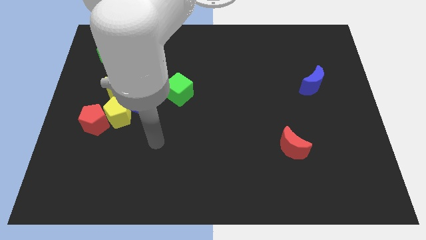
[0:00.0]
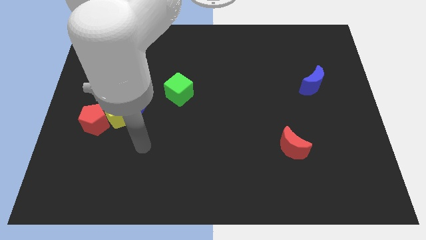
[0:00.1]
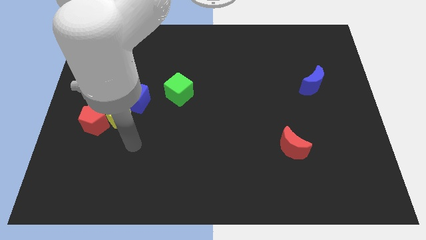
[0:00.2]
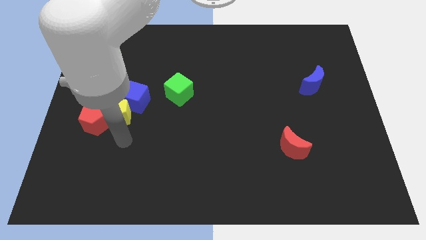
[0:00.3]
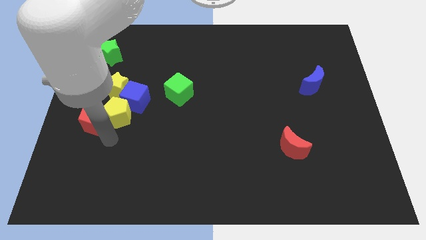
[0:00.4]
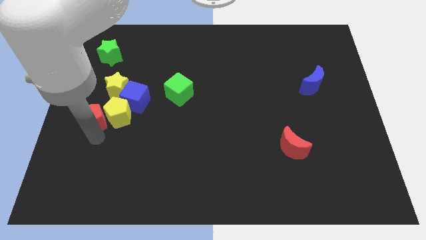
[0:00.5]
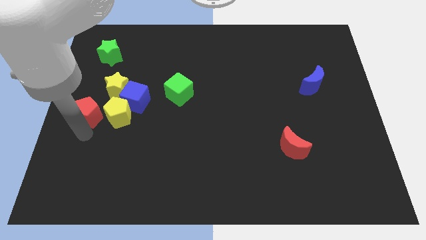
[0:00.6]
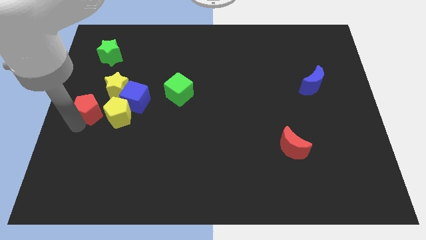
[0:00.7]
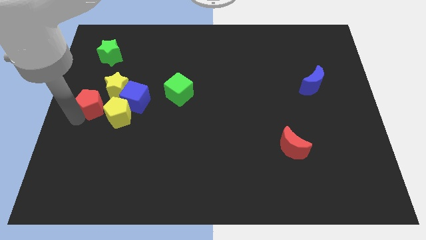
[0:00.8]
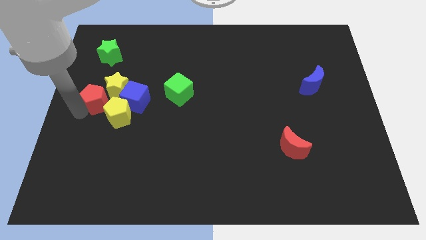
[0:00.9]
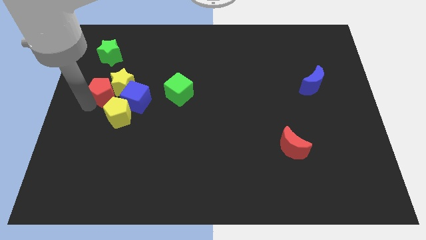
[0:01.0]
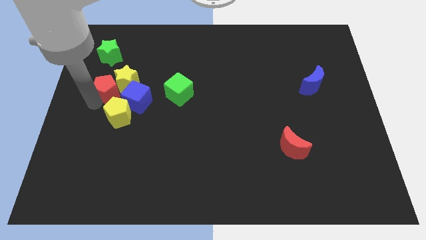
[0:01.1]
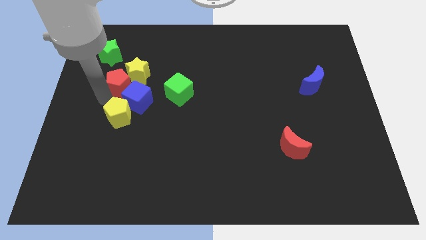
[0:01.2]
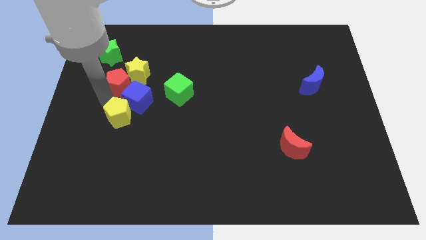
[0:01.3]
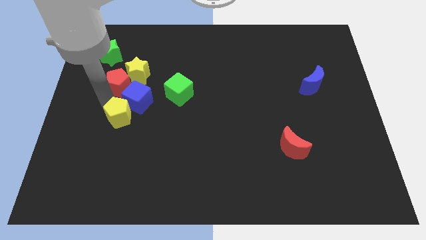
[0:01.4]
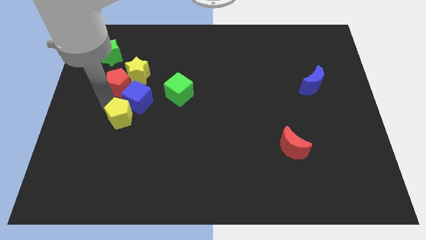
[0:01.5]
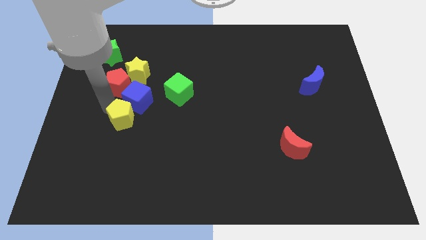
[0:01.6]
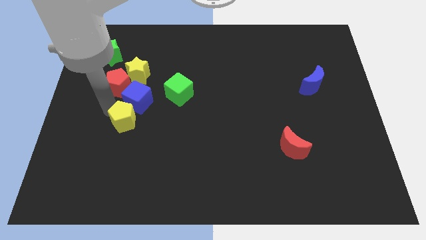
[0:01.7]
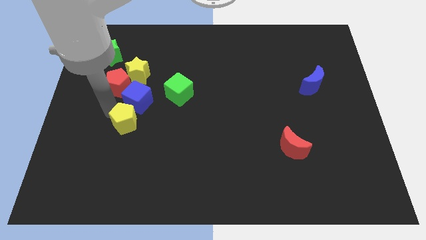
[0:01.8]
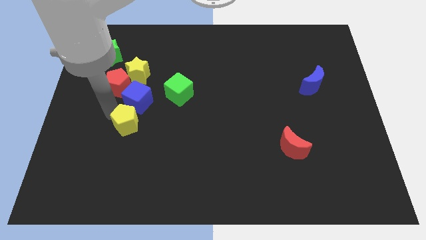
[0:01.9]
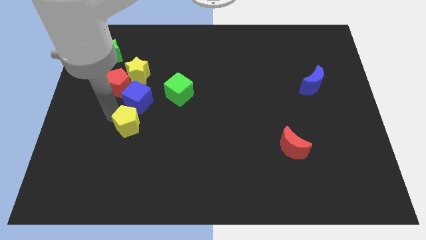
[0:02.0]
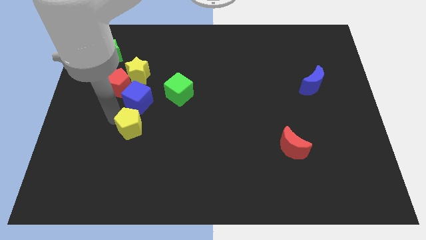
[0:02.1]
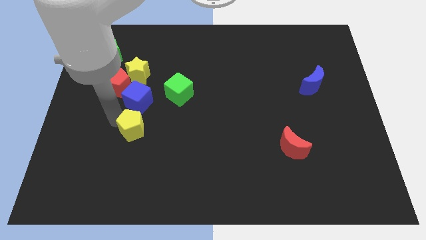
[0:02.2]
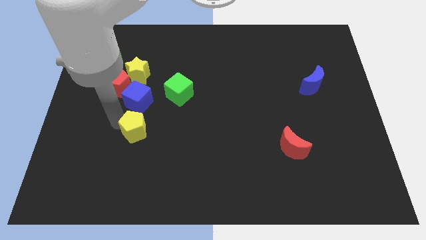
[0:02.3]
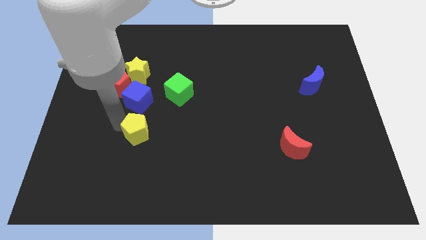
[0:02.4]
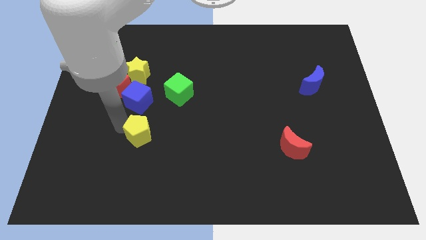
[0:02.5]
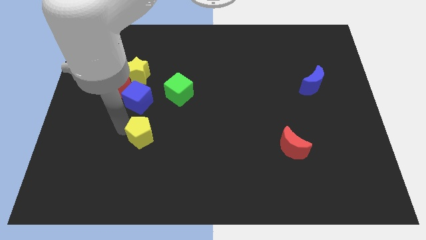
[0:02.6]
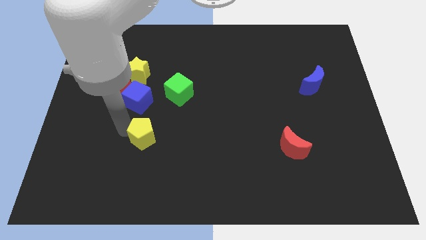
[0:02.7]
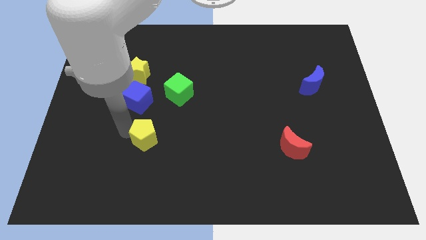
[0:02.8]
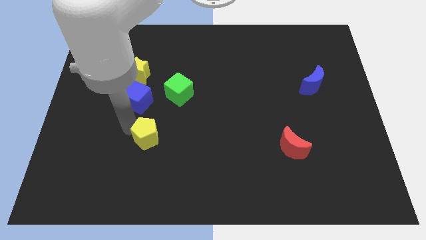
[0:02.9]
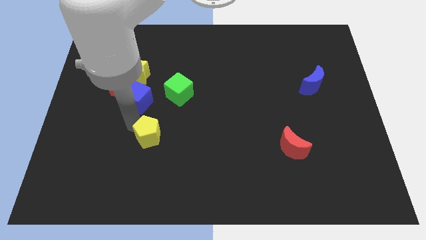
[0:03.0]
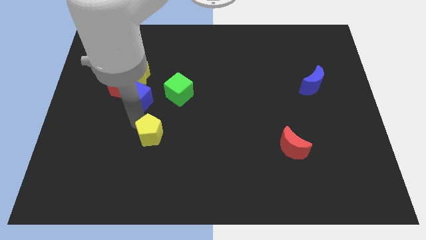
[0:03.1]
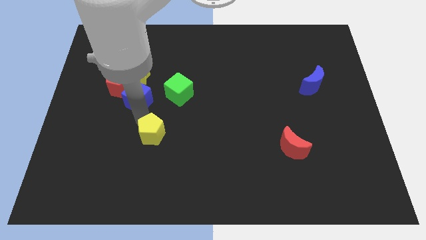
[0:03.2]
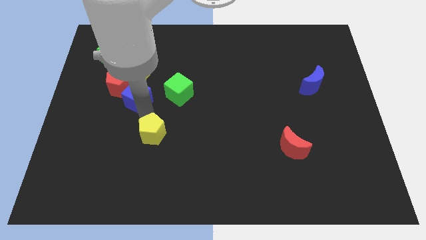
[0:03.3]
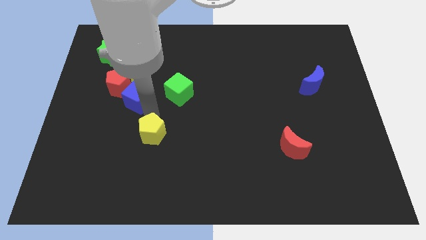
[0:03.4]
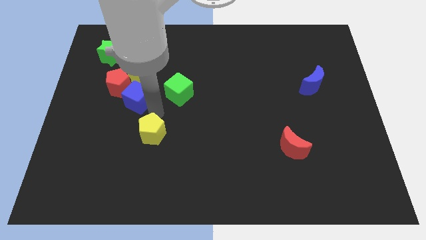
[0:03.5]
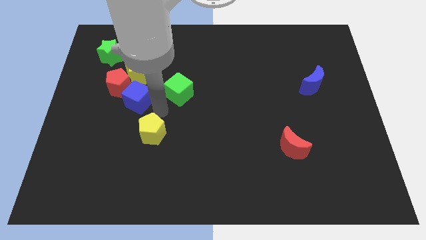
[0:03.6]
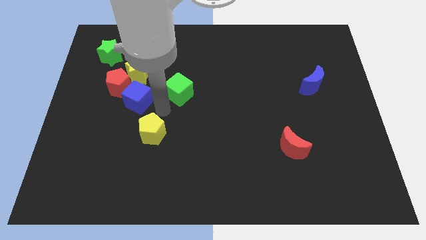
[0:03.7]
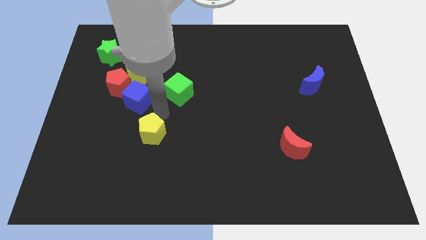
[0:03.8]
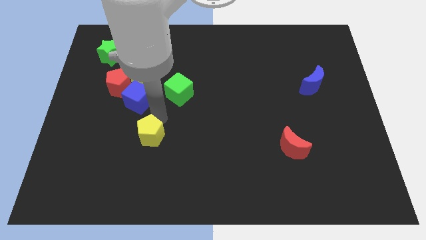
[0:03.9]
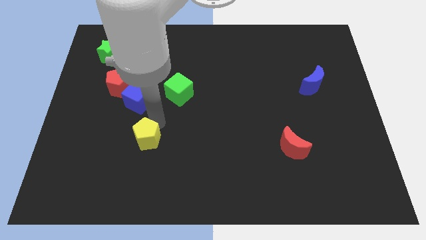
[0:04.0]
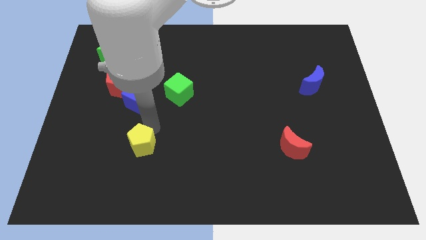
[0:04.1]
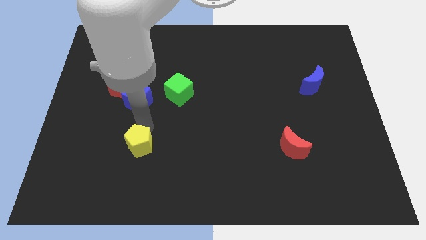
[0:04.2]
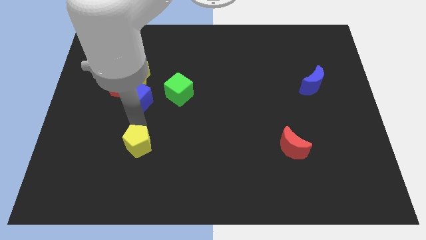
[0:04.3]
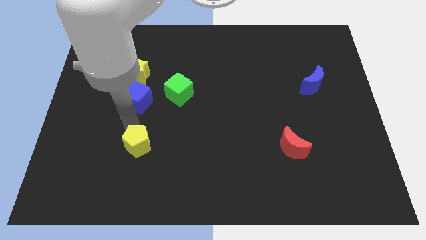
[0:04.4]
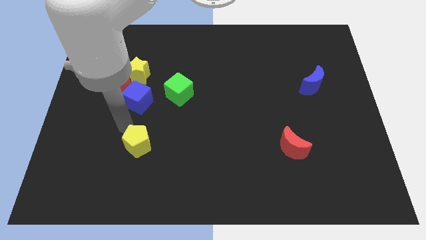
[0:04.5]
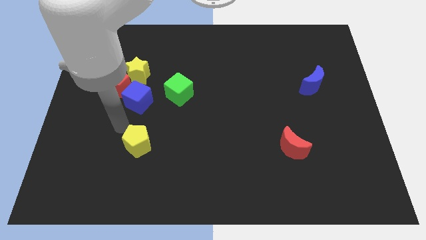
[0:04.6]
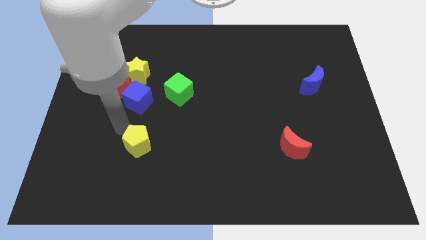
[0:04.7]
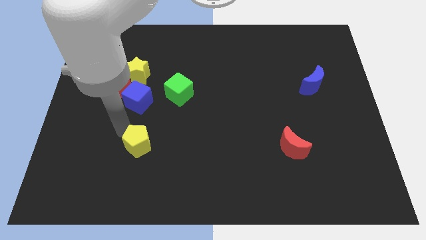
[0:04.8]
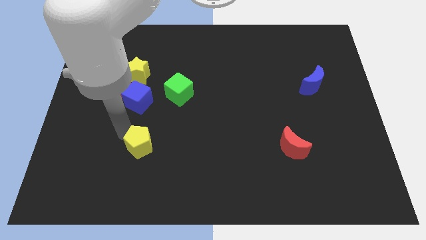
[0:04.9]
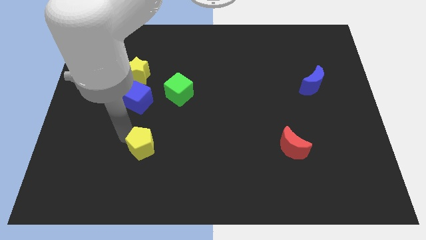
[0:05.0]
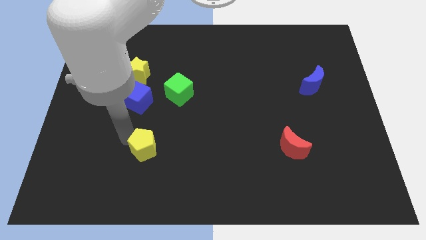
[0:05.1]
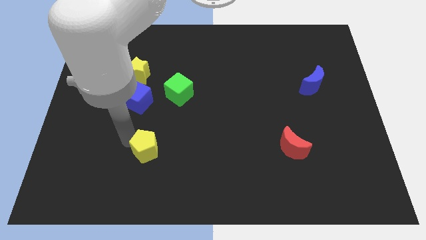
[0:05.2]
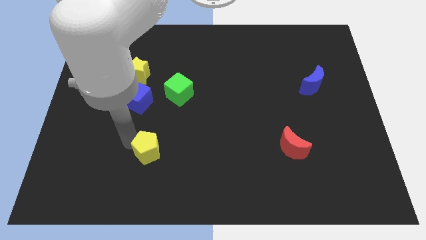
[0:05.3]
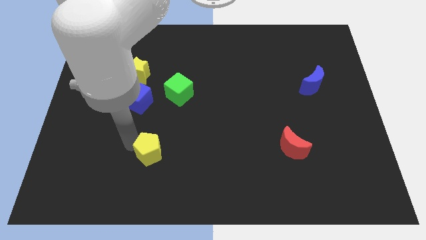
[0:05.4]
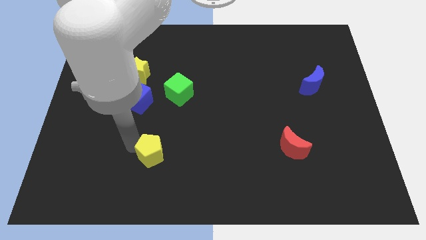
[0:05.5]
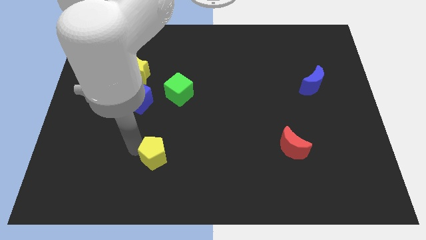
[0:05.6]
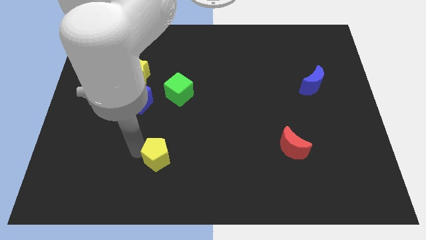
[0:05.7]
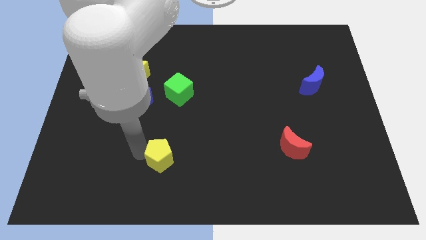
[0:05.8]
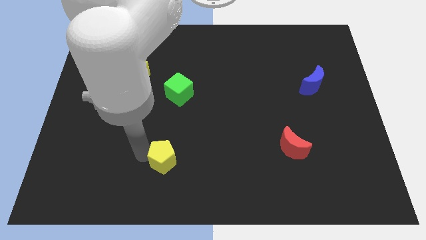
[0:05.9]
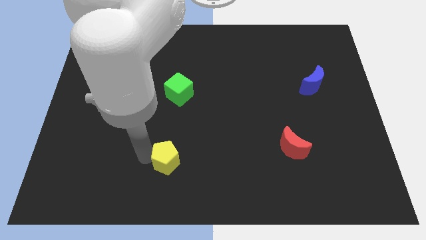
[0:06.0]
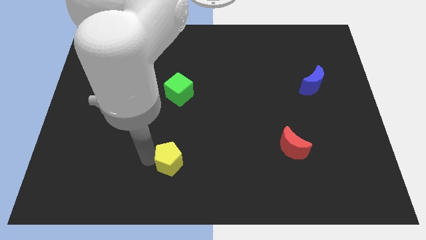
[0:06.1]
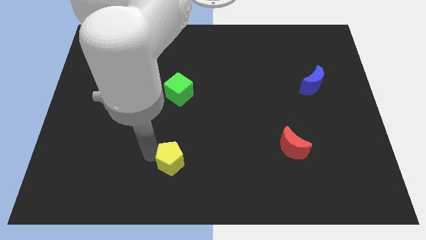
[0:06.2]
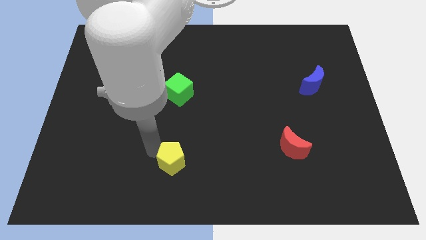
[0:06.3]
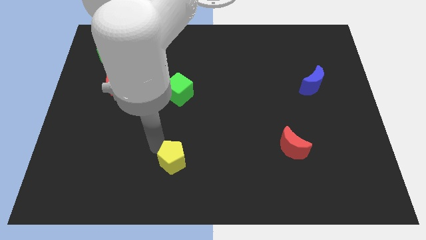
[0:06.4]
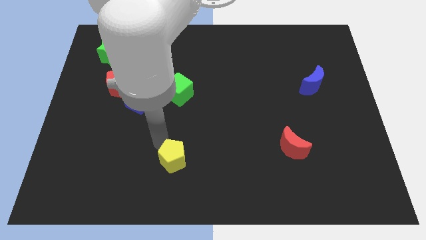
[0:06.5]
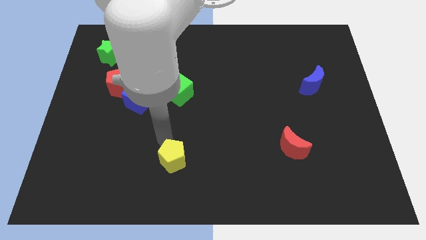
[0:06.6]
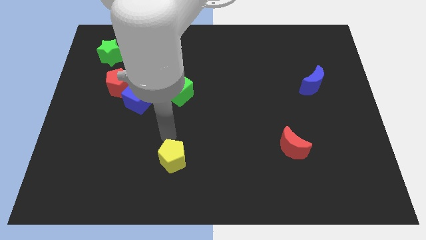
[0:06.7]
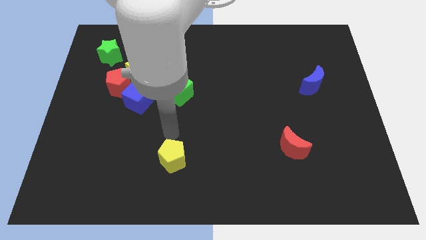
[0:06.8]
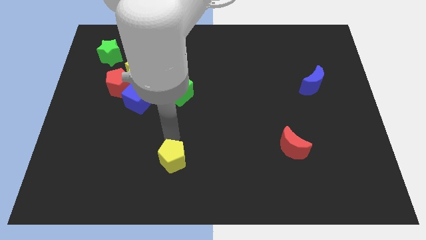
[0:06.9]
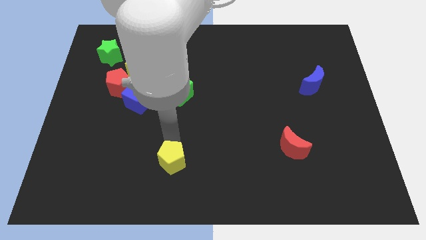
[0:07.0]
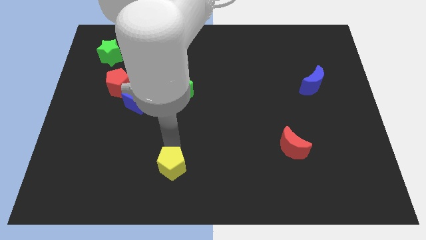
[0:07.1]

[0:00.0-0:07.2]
slide the yellow pentagon to the bottom side
